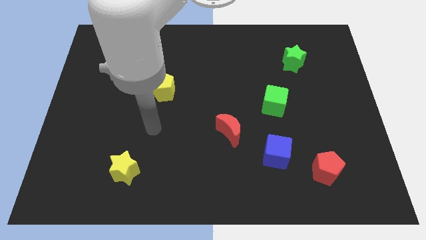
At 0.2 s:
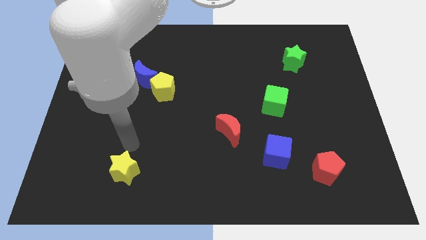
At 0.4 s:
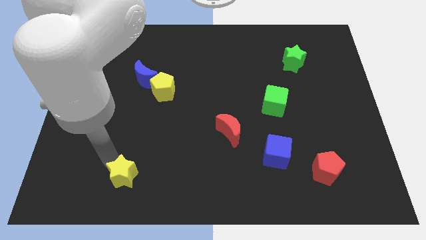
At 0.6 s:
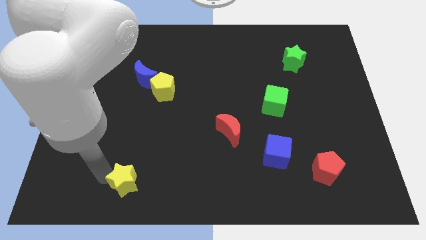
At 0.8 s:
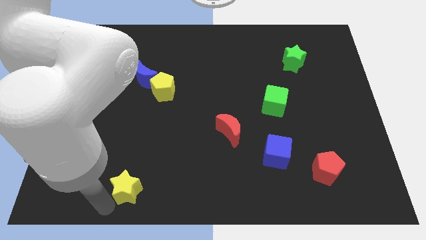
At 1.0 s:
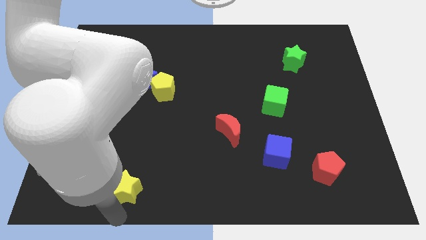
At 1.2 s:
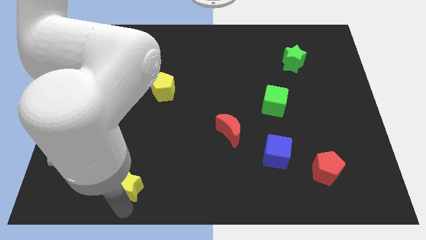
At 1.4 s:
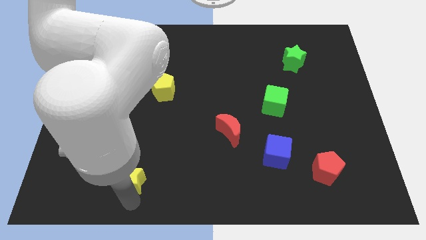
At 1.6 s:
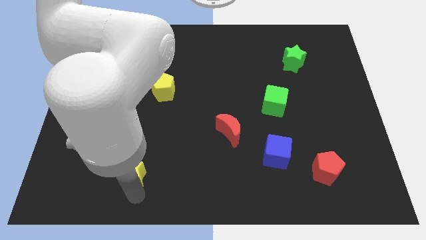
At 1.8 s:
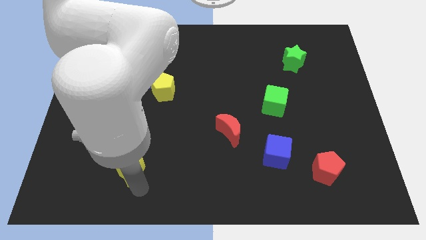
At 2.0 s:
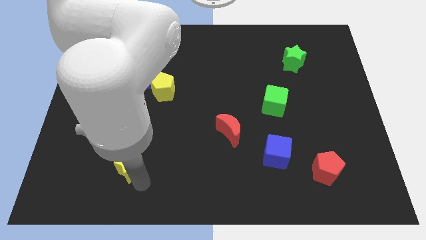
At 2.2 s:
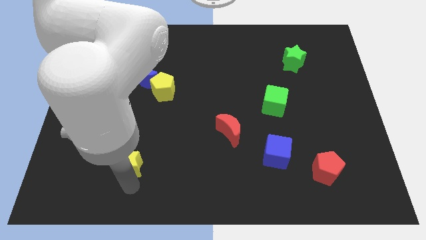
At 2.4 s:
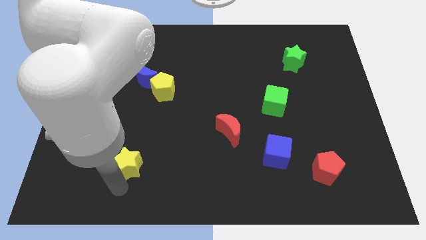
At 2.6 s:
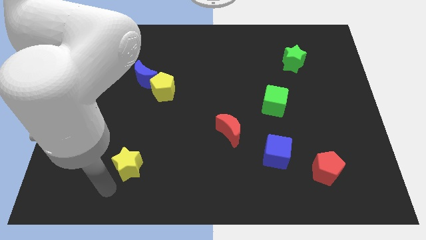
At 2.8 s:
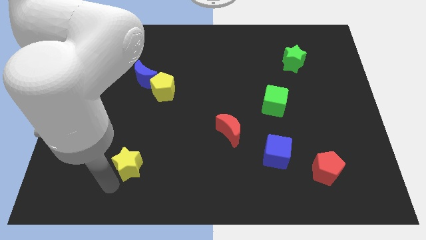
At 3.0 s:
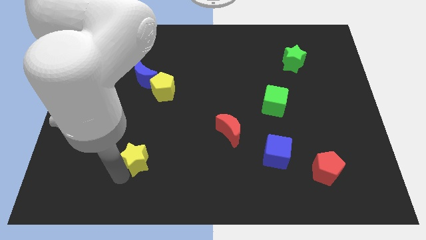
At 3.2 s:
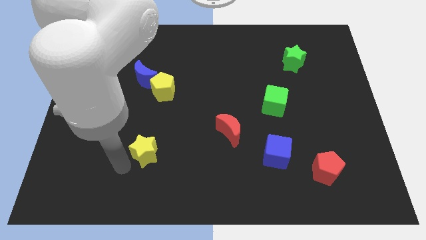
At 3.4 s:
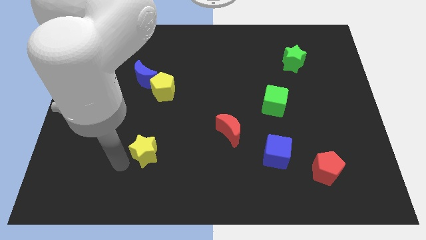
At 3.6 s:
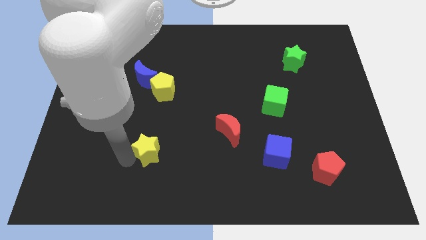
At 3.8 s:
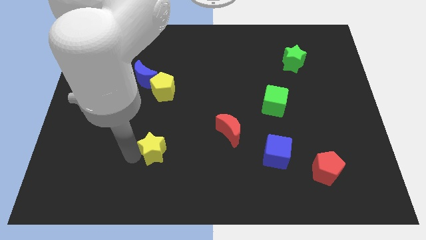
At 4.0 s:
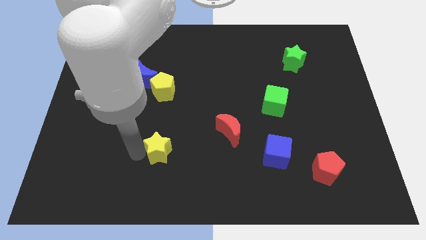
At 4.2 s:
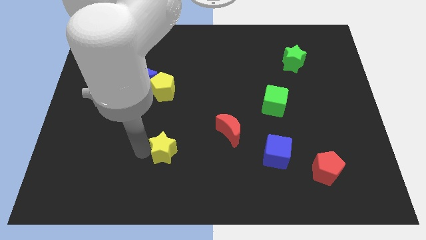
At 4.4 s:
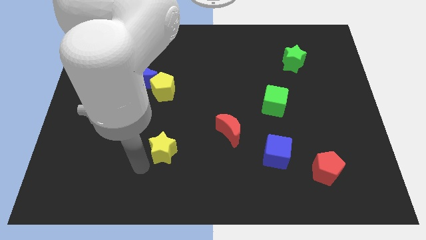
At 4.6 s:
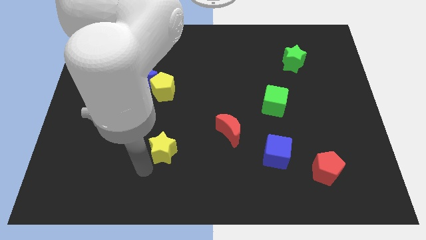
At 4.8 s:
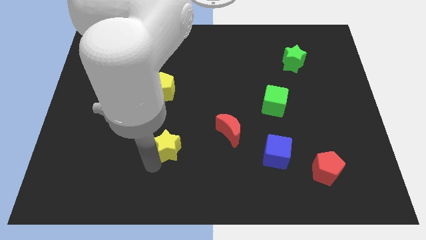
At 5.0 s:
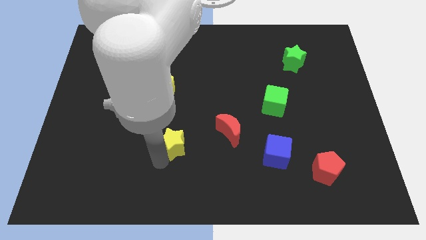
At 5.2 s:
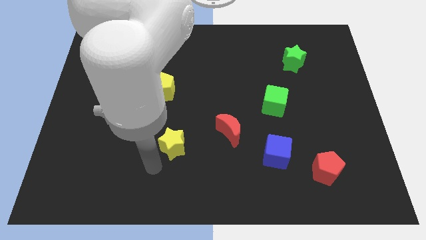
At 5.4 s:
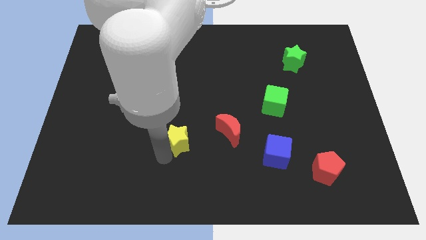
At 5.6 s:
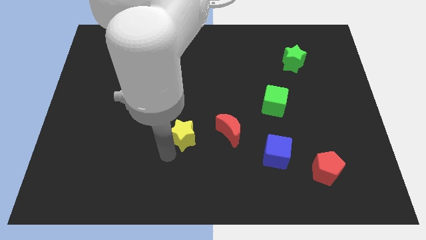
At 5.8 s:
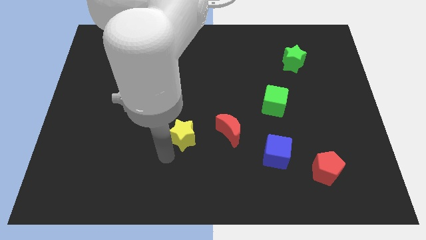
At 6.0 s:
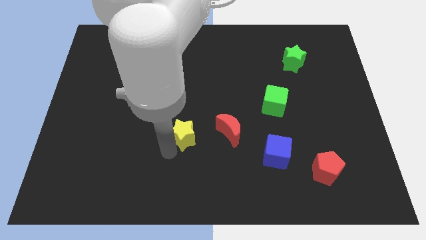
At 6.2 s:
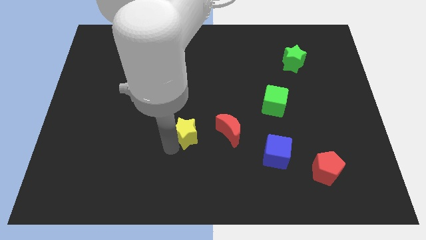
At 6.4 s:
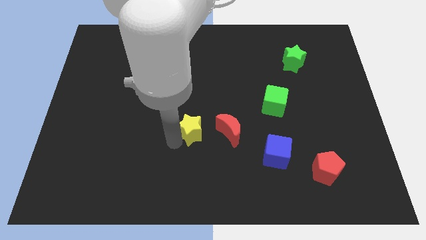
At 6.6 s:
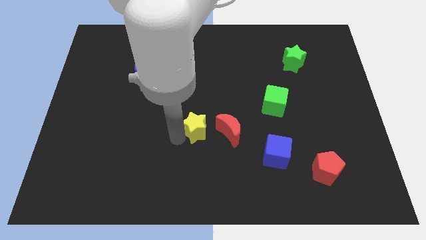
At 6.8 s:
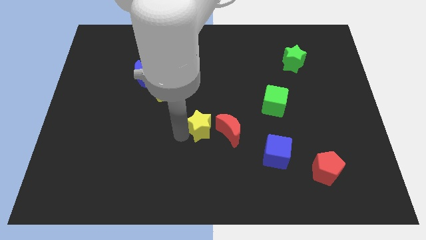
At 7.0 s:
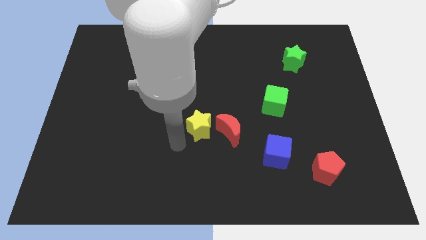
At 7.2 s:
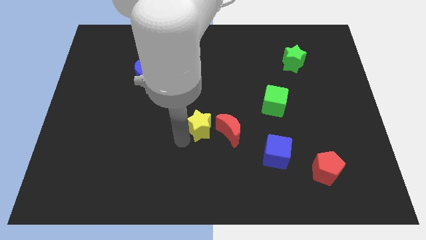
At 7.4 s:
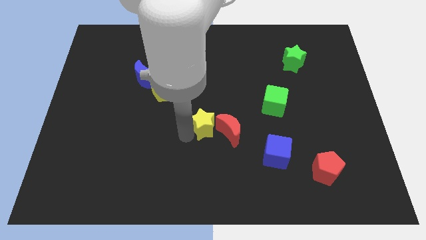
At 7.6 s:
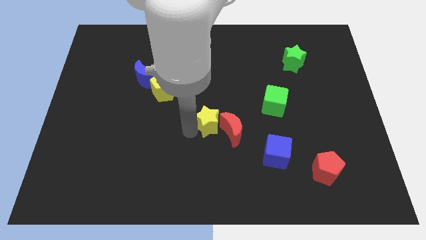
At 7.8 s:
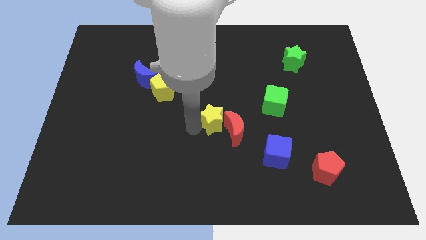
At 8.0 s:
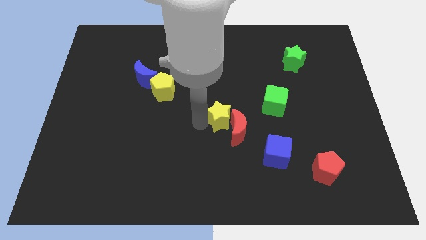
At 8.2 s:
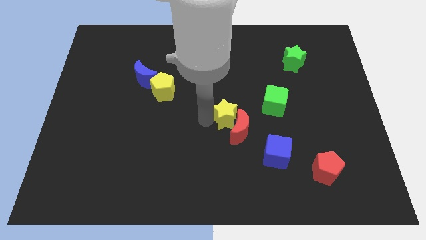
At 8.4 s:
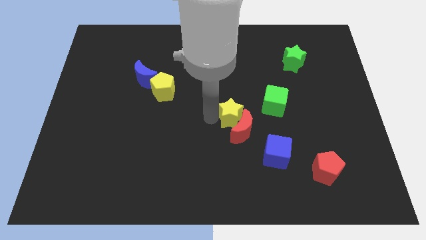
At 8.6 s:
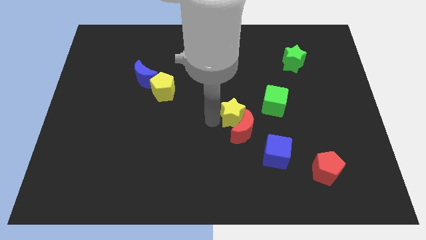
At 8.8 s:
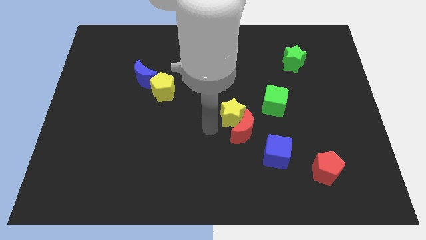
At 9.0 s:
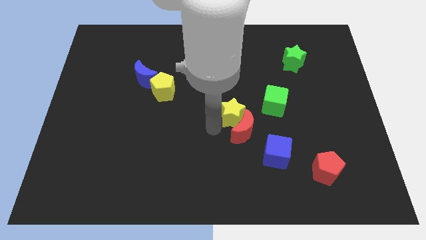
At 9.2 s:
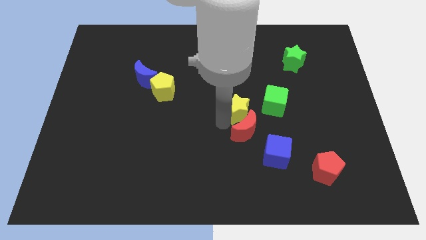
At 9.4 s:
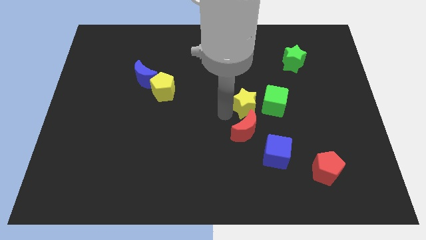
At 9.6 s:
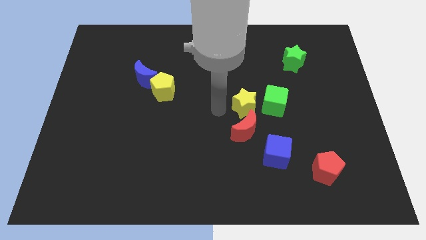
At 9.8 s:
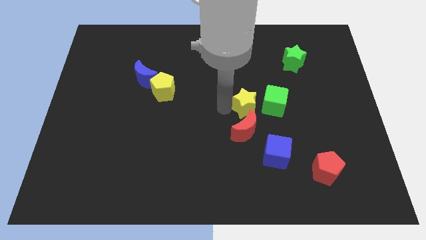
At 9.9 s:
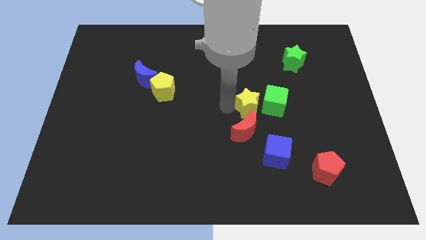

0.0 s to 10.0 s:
push the yellow star next to the green cube
